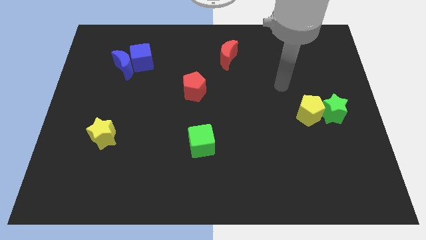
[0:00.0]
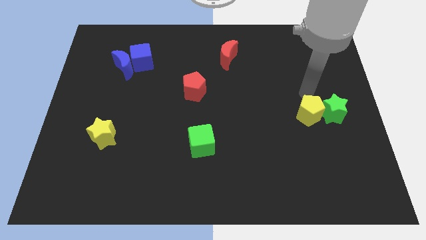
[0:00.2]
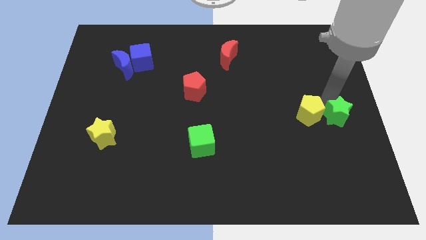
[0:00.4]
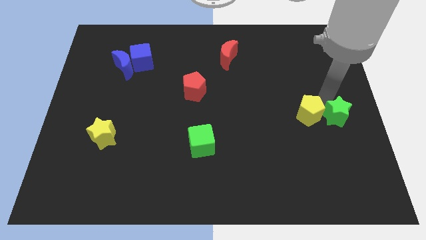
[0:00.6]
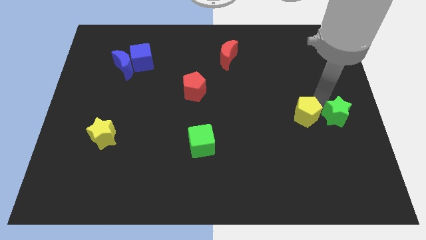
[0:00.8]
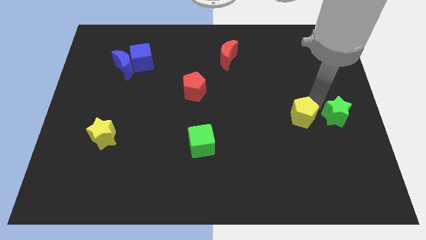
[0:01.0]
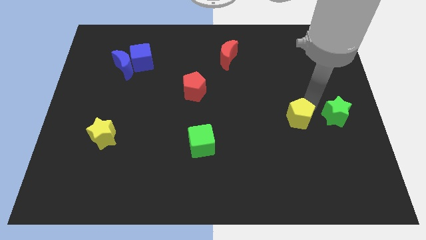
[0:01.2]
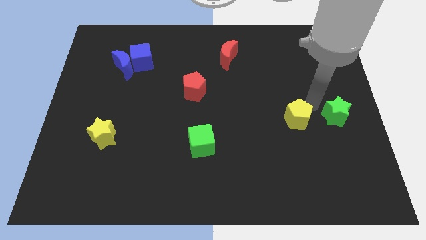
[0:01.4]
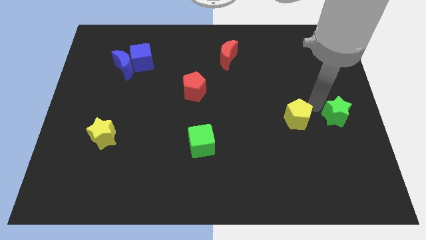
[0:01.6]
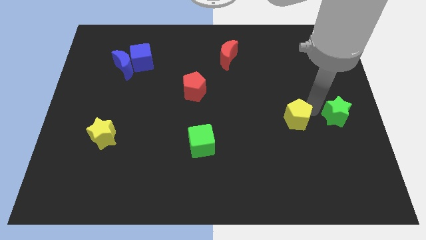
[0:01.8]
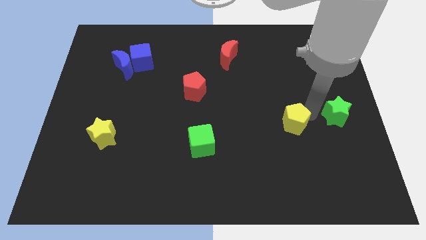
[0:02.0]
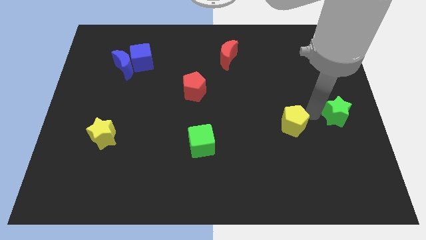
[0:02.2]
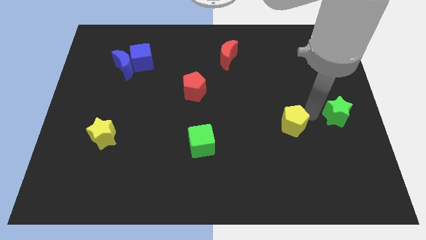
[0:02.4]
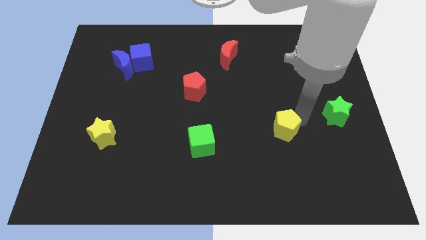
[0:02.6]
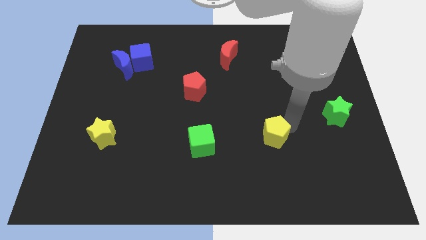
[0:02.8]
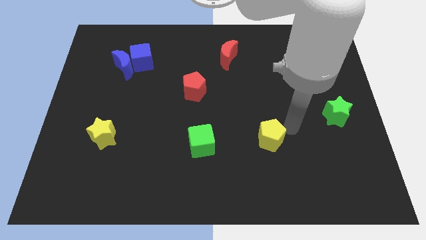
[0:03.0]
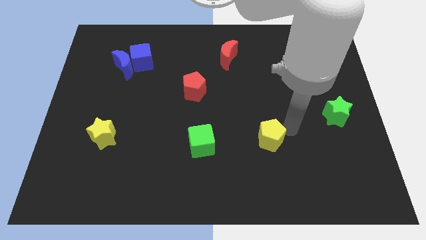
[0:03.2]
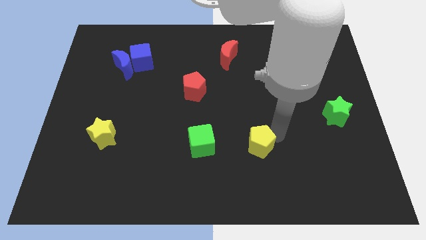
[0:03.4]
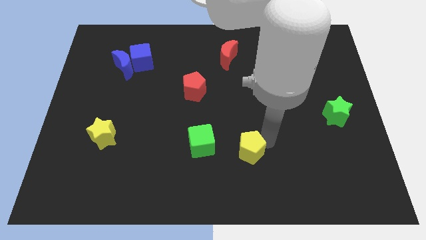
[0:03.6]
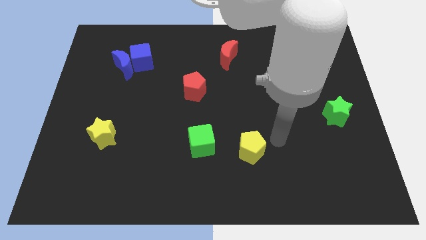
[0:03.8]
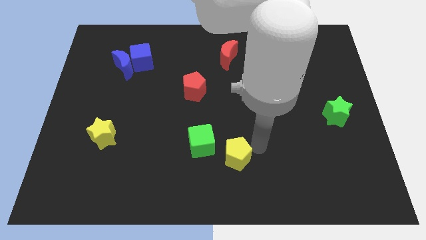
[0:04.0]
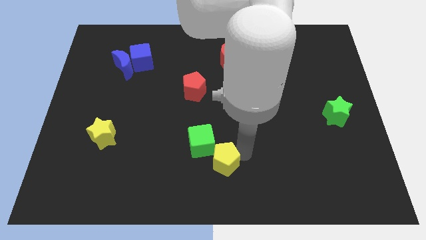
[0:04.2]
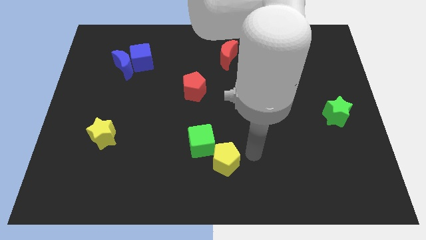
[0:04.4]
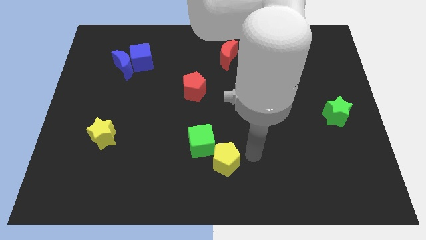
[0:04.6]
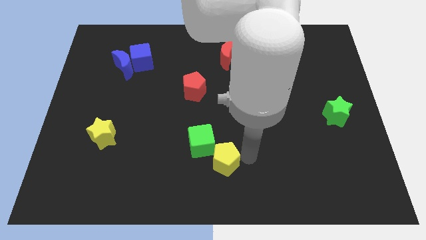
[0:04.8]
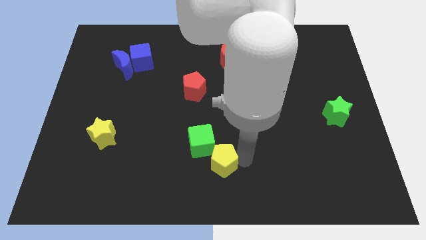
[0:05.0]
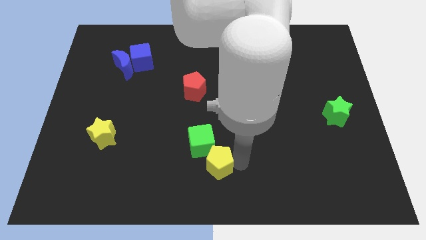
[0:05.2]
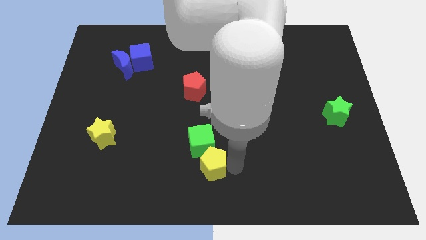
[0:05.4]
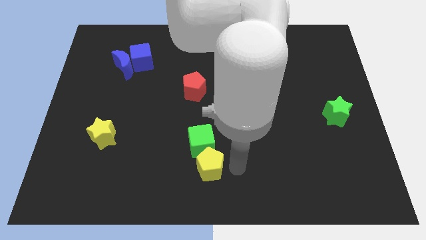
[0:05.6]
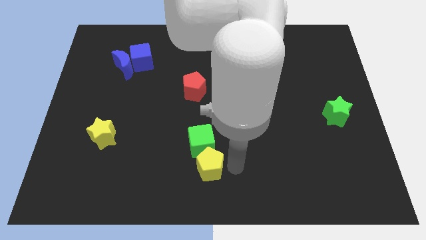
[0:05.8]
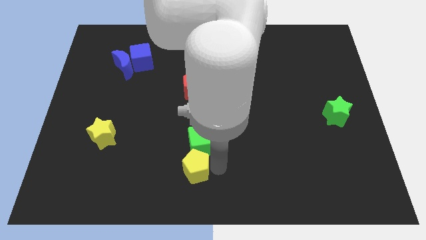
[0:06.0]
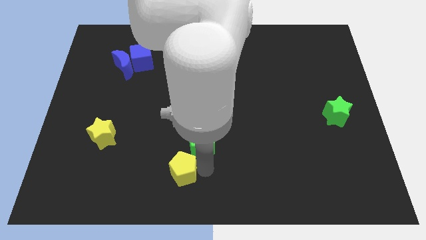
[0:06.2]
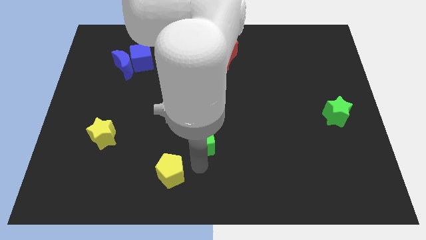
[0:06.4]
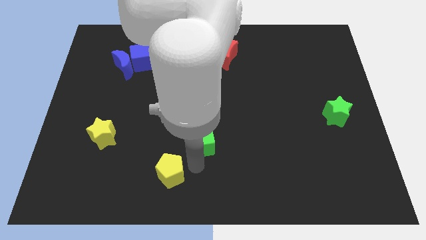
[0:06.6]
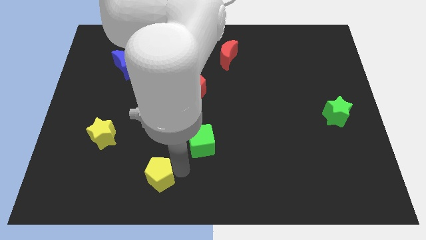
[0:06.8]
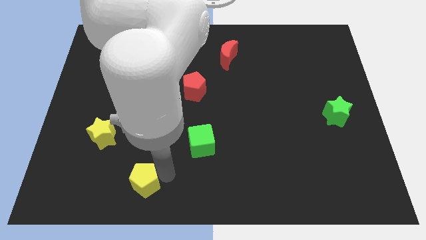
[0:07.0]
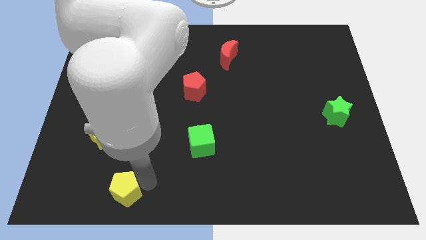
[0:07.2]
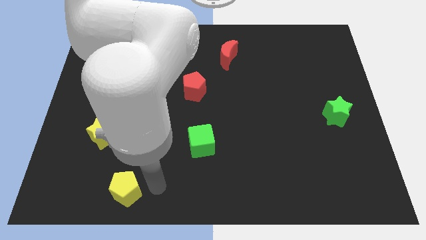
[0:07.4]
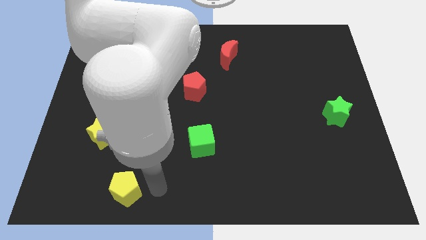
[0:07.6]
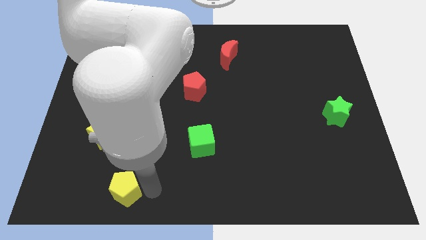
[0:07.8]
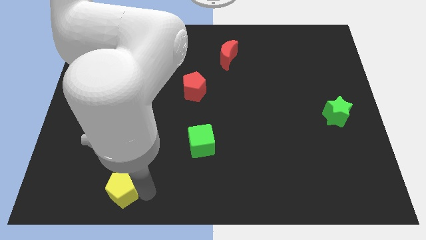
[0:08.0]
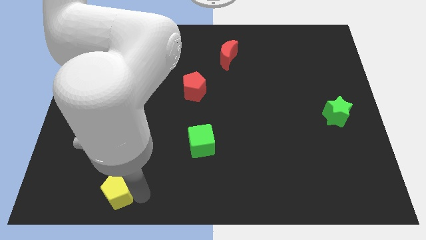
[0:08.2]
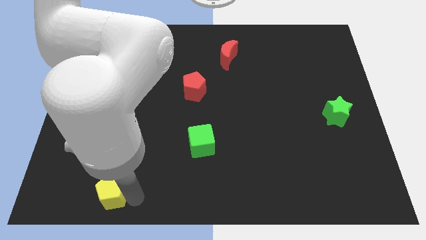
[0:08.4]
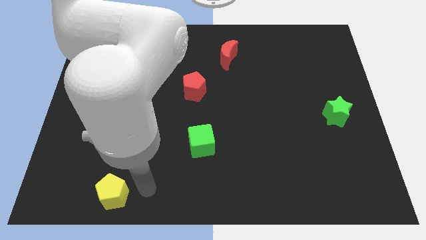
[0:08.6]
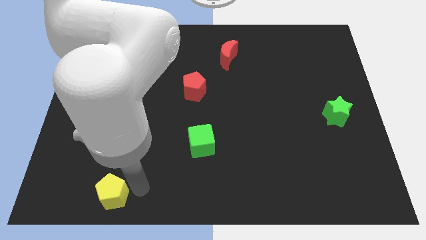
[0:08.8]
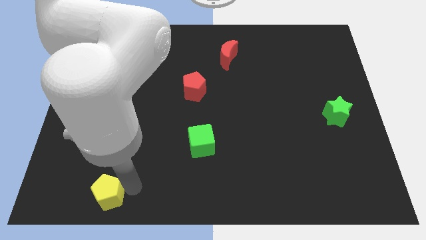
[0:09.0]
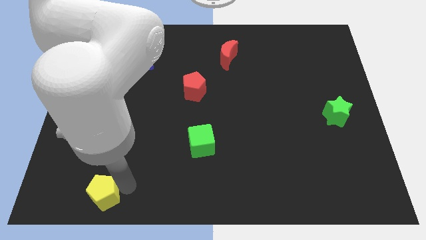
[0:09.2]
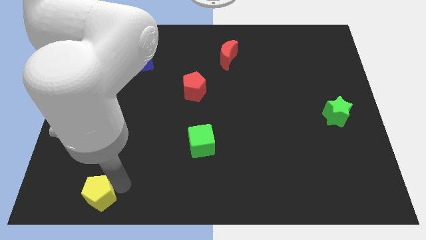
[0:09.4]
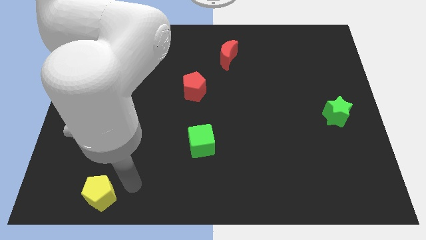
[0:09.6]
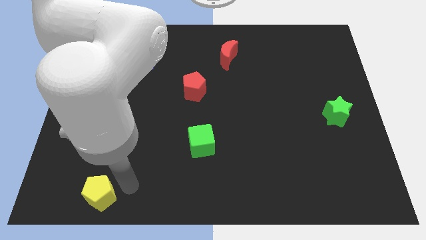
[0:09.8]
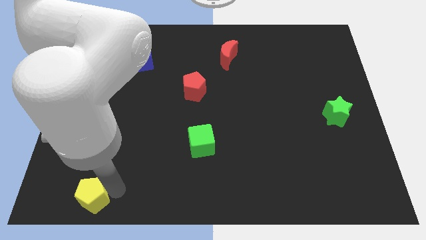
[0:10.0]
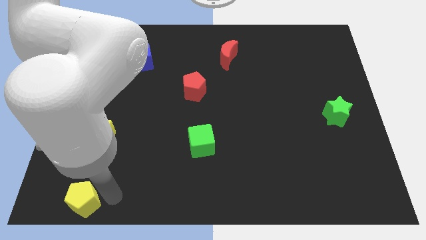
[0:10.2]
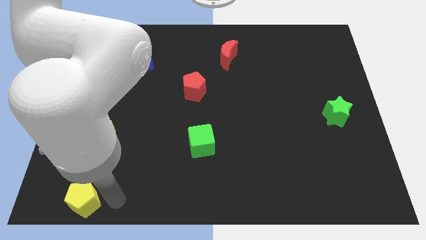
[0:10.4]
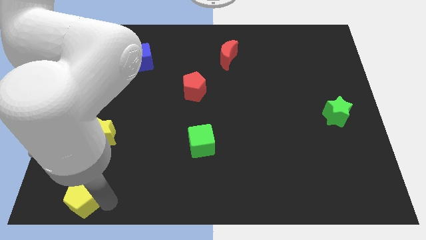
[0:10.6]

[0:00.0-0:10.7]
move the yellow pentagon to the lower left corner

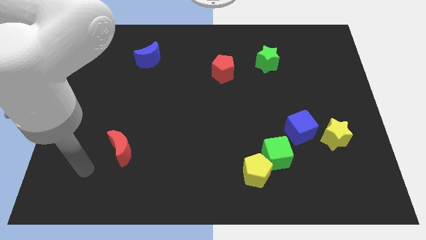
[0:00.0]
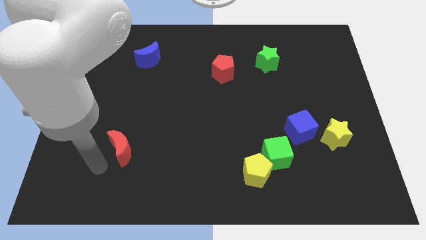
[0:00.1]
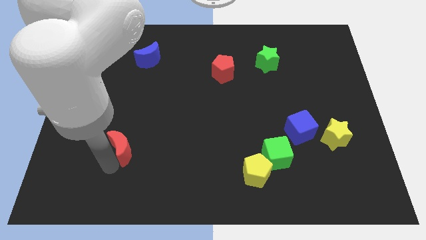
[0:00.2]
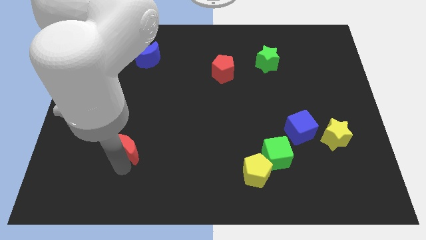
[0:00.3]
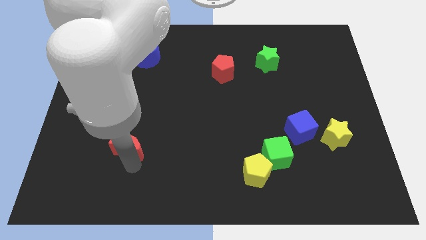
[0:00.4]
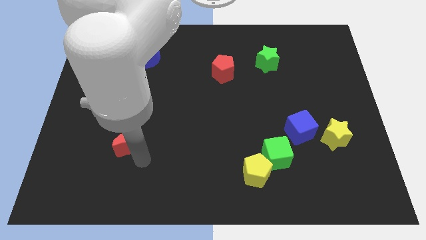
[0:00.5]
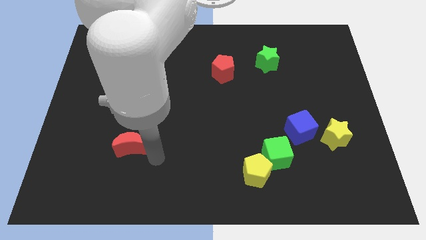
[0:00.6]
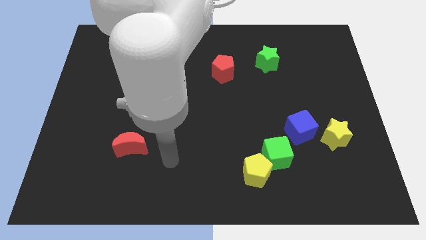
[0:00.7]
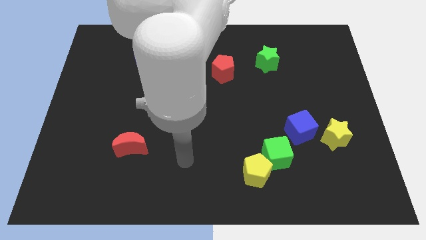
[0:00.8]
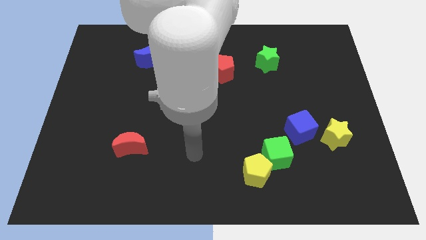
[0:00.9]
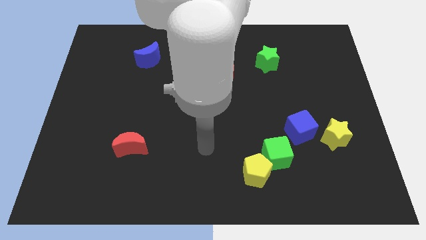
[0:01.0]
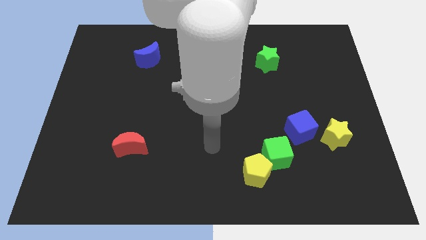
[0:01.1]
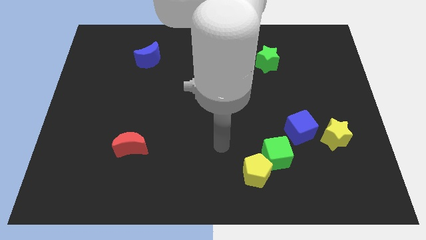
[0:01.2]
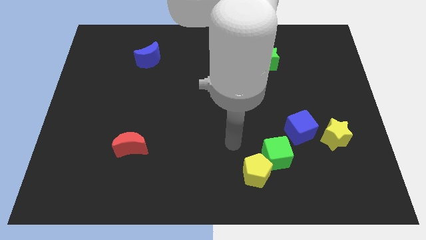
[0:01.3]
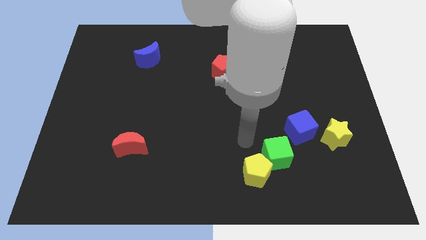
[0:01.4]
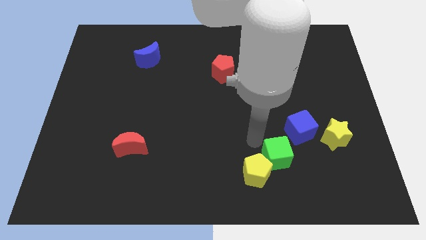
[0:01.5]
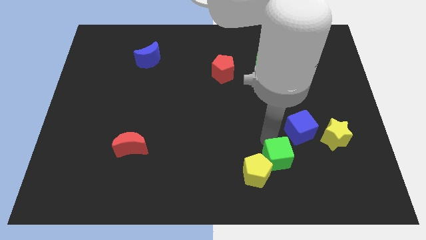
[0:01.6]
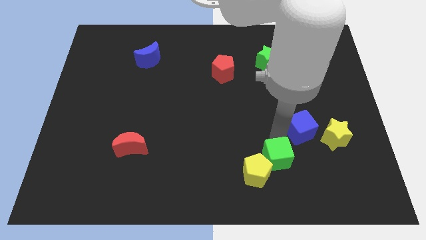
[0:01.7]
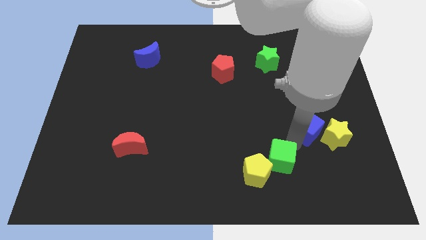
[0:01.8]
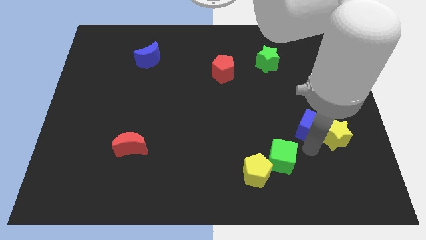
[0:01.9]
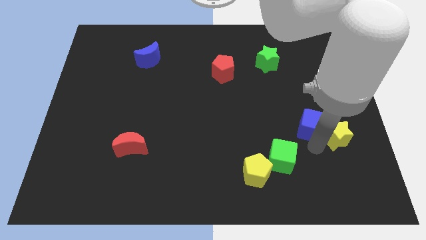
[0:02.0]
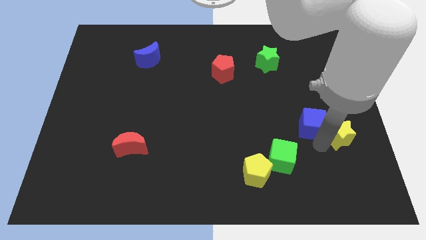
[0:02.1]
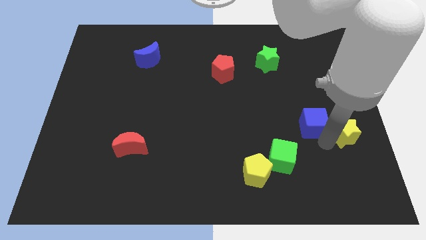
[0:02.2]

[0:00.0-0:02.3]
put the yellow star to the center right
